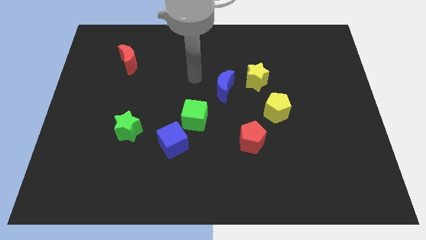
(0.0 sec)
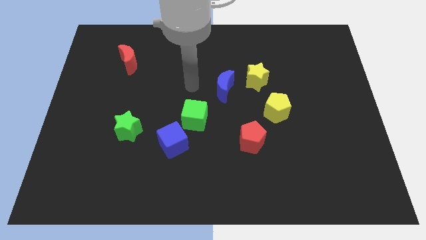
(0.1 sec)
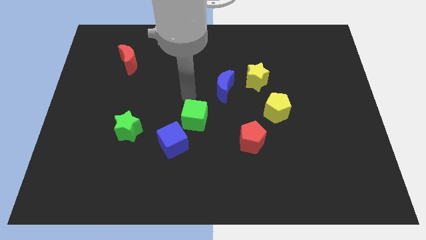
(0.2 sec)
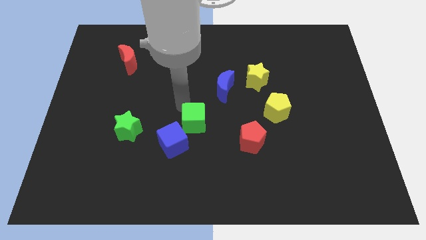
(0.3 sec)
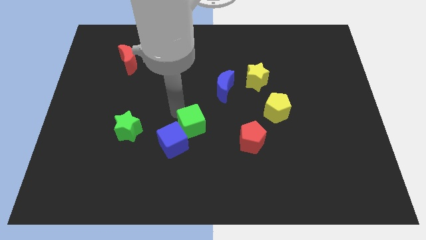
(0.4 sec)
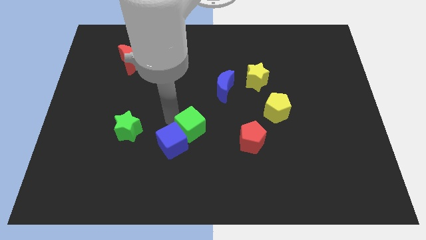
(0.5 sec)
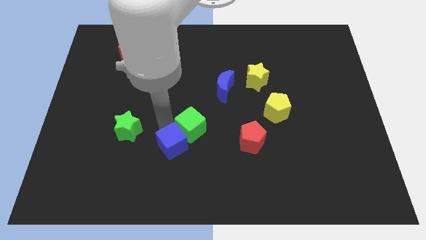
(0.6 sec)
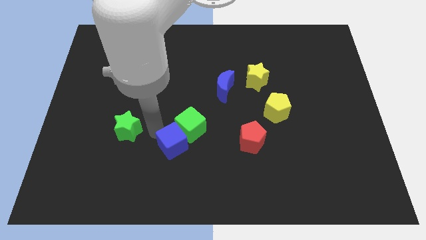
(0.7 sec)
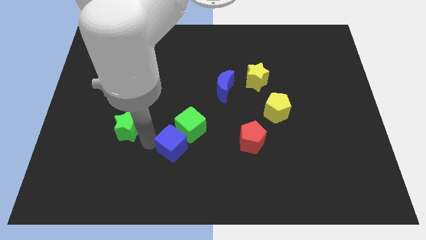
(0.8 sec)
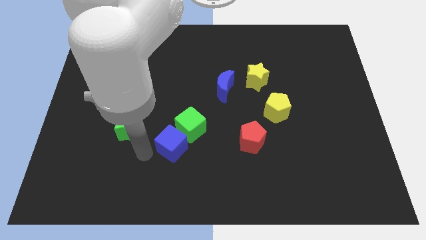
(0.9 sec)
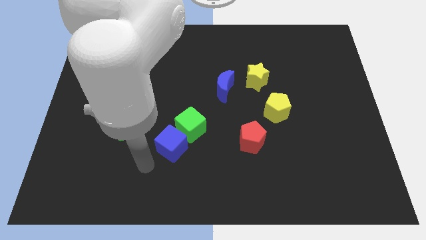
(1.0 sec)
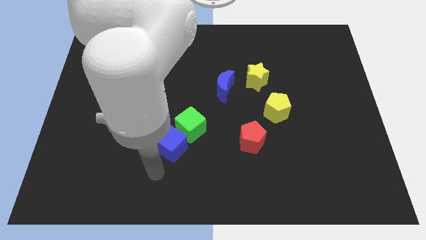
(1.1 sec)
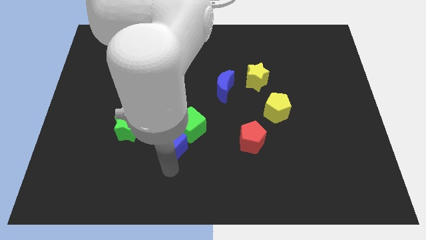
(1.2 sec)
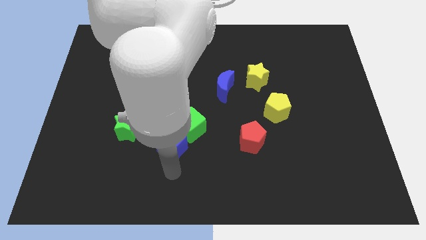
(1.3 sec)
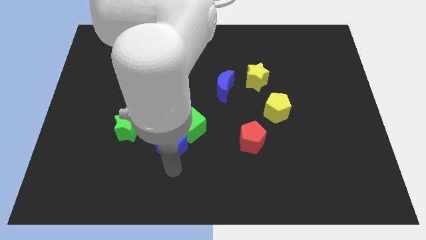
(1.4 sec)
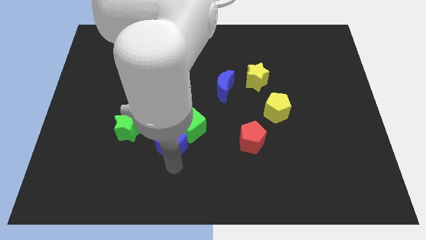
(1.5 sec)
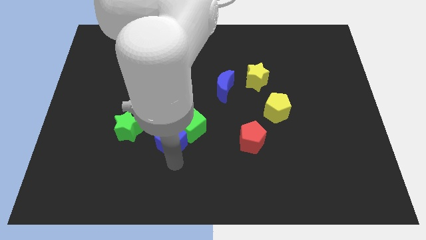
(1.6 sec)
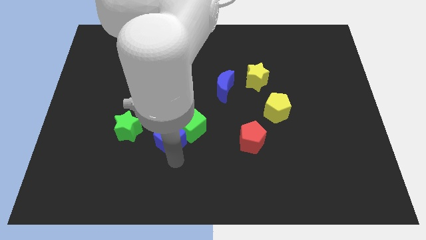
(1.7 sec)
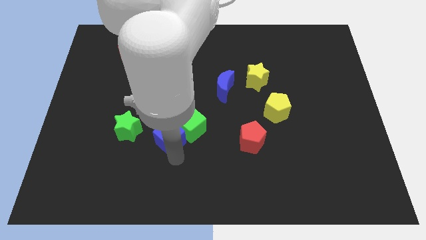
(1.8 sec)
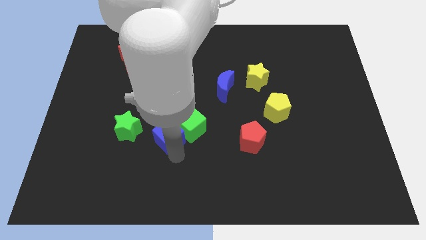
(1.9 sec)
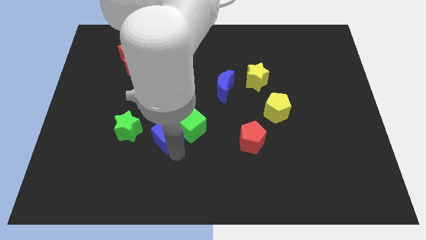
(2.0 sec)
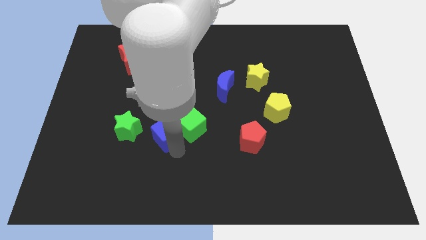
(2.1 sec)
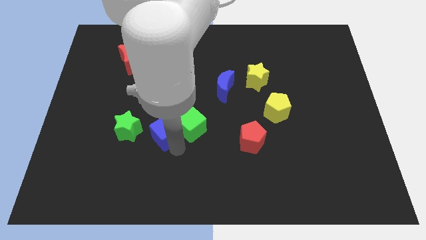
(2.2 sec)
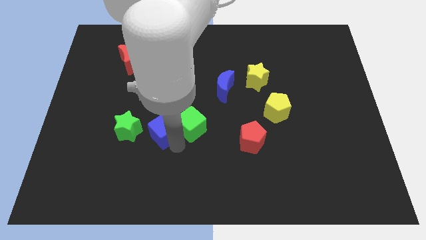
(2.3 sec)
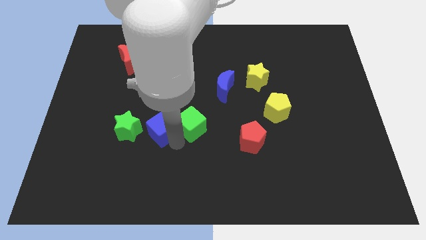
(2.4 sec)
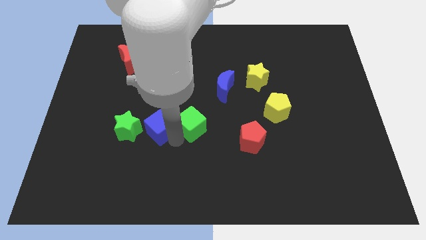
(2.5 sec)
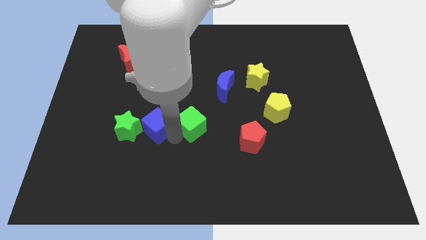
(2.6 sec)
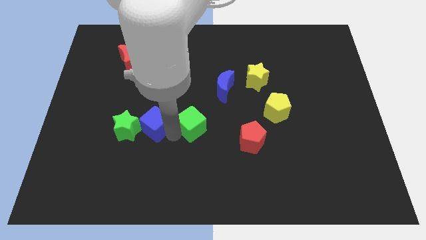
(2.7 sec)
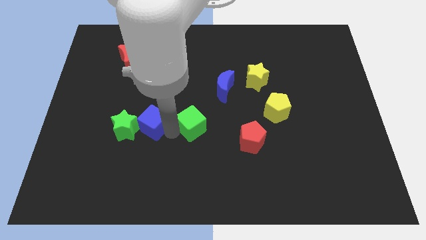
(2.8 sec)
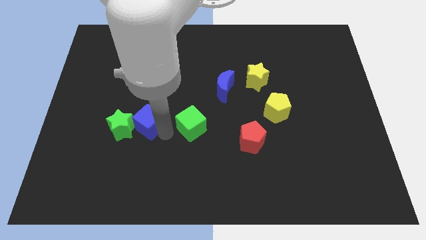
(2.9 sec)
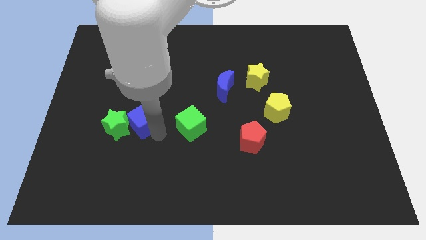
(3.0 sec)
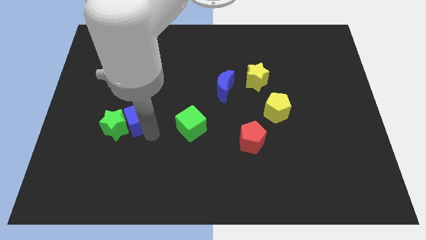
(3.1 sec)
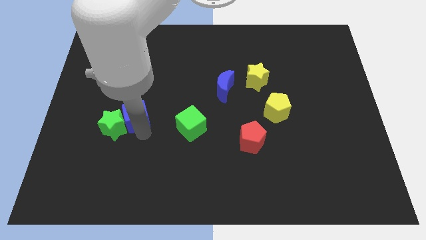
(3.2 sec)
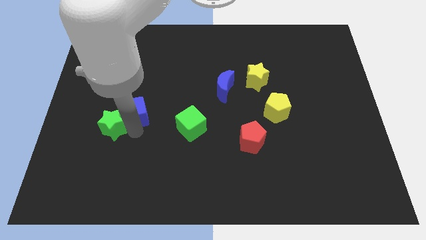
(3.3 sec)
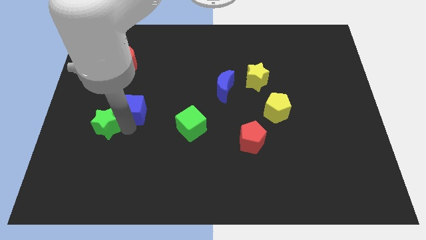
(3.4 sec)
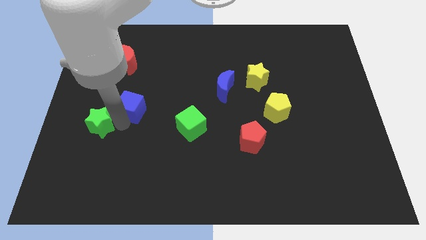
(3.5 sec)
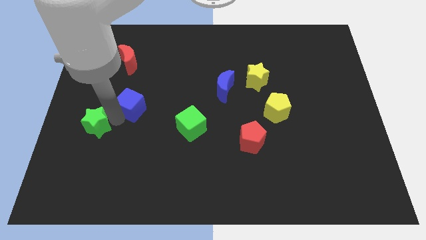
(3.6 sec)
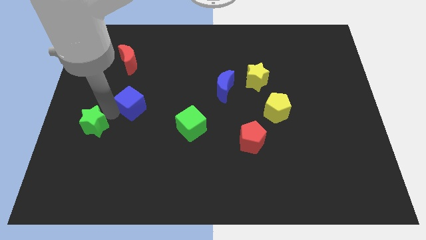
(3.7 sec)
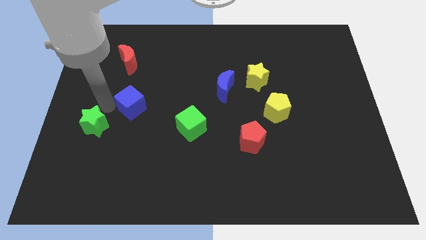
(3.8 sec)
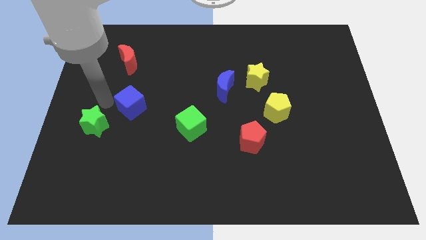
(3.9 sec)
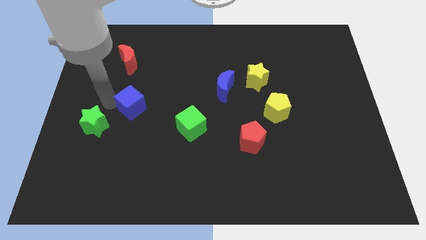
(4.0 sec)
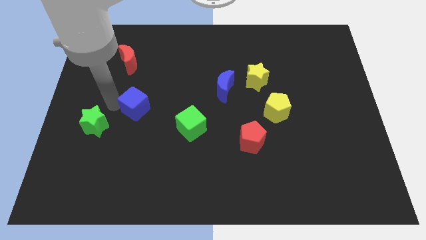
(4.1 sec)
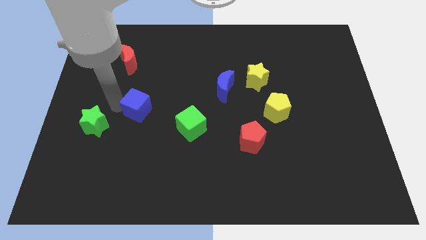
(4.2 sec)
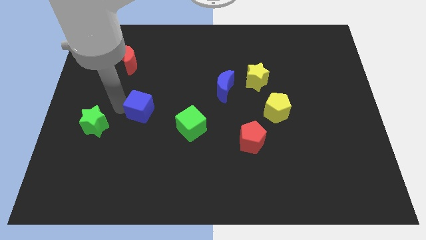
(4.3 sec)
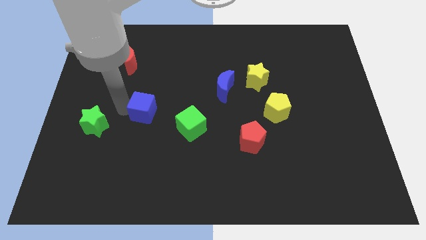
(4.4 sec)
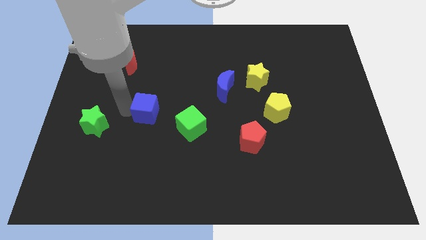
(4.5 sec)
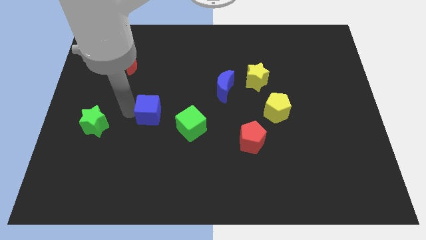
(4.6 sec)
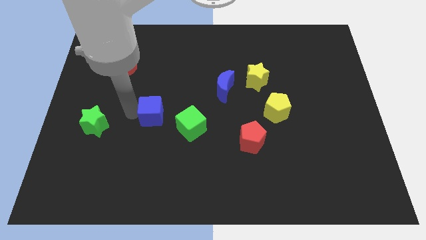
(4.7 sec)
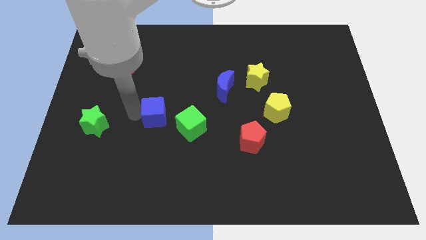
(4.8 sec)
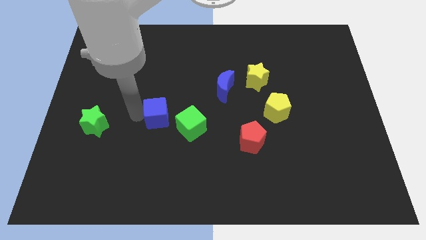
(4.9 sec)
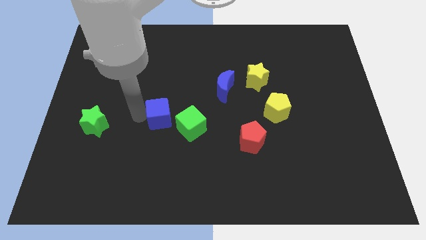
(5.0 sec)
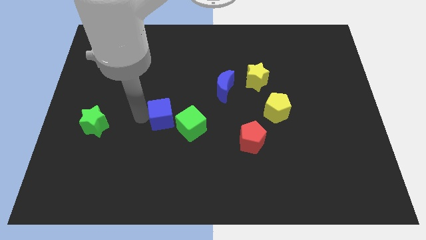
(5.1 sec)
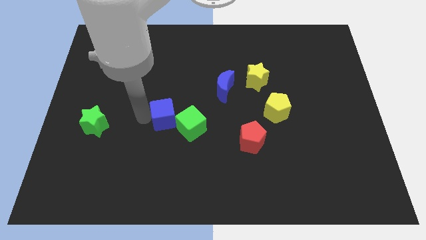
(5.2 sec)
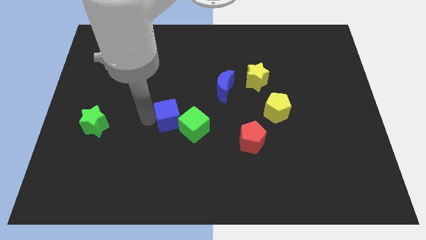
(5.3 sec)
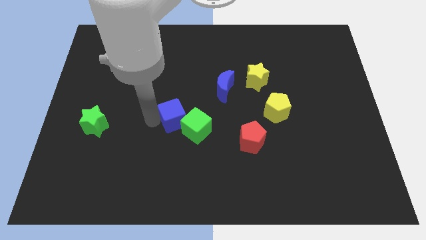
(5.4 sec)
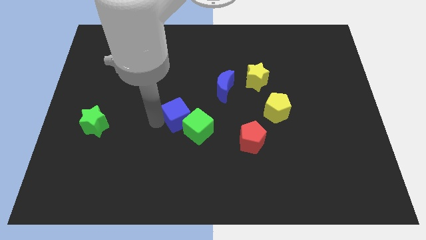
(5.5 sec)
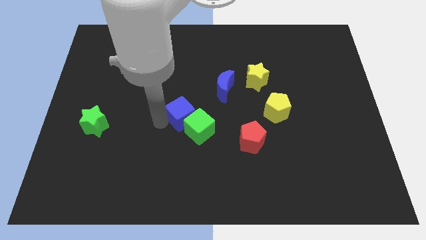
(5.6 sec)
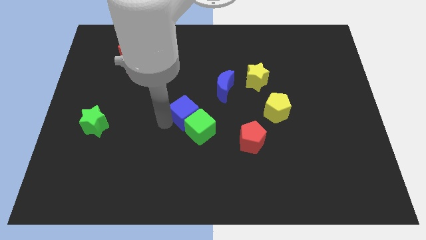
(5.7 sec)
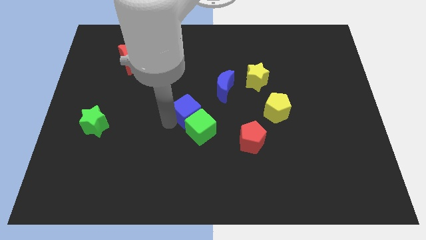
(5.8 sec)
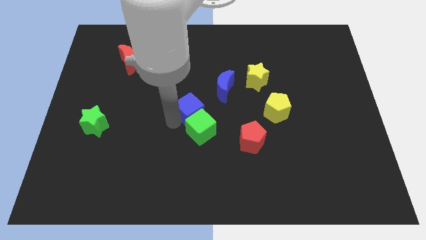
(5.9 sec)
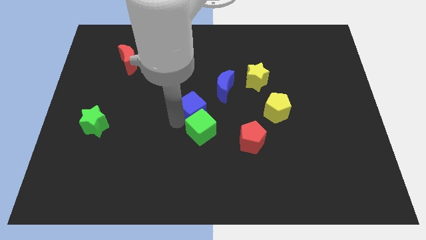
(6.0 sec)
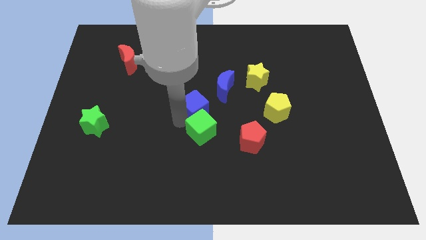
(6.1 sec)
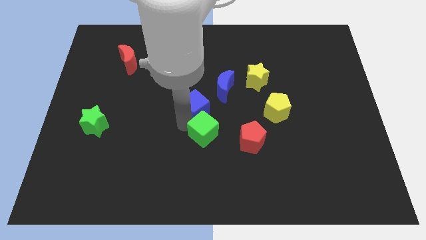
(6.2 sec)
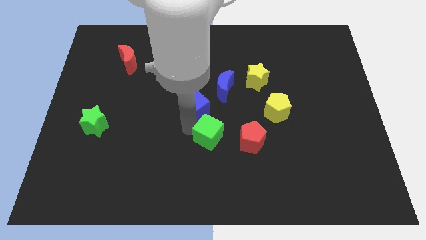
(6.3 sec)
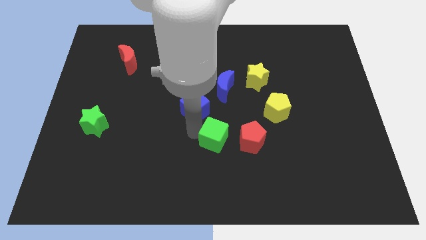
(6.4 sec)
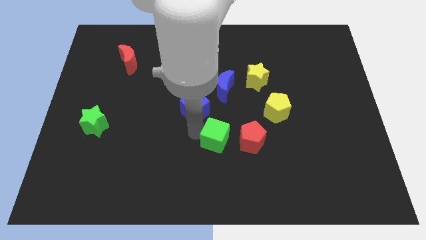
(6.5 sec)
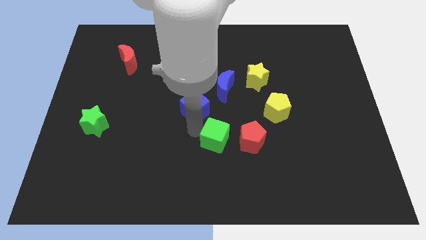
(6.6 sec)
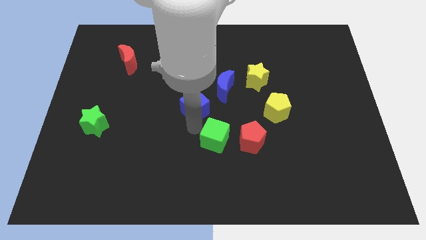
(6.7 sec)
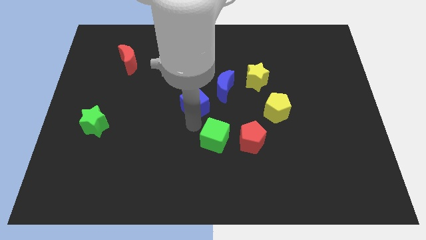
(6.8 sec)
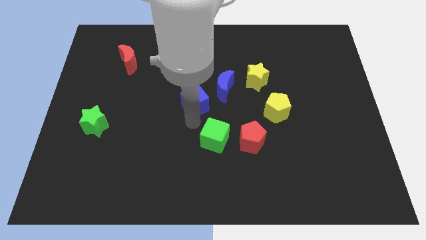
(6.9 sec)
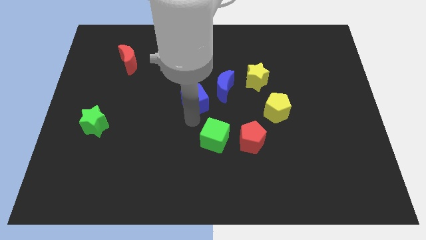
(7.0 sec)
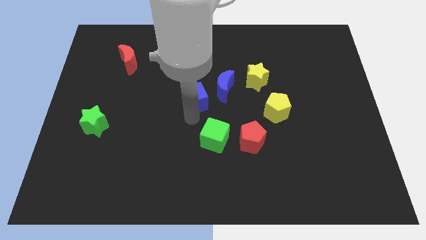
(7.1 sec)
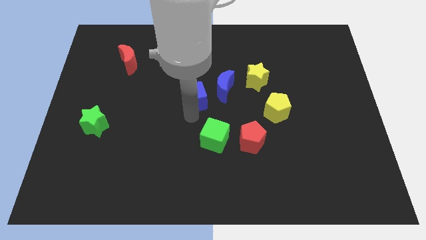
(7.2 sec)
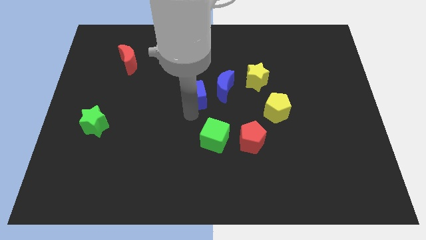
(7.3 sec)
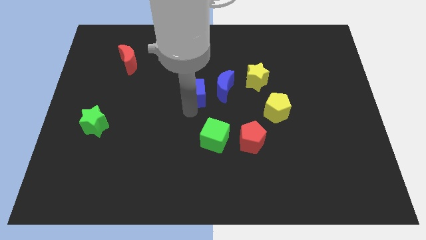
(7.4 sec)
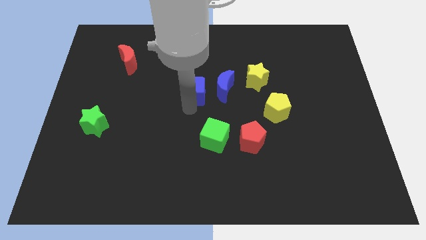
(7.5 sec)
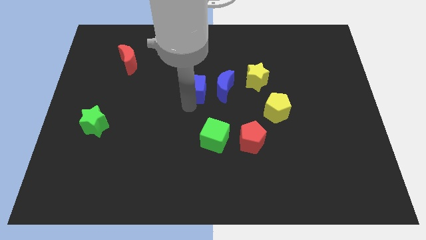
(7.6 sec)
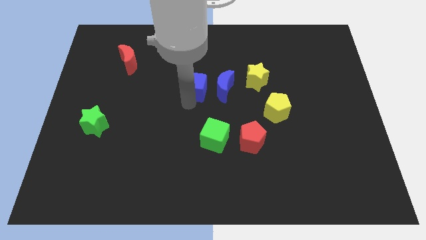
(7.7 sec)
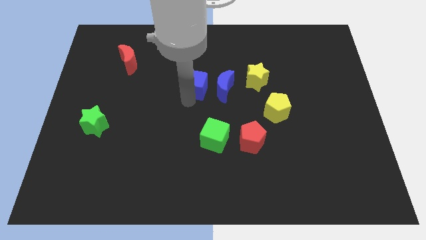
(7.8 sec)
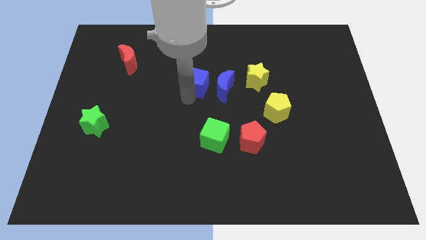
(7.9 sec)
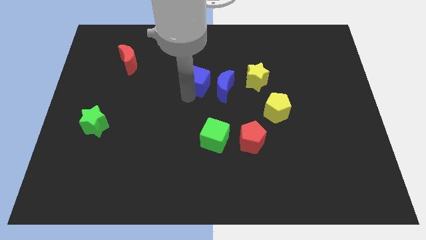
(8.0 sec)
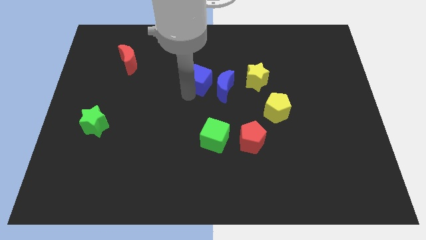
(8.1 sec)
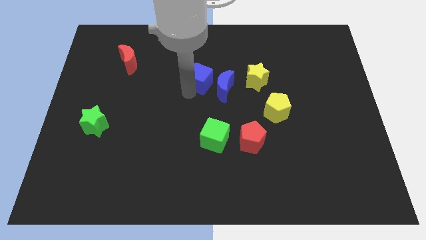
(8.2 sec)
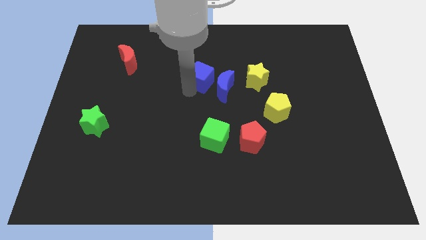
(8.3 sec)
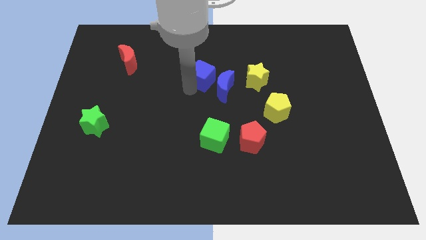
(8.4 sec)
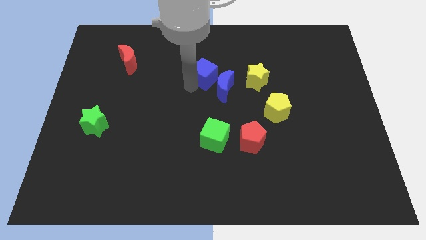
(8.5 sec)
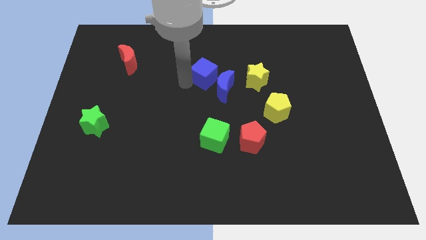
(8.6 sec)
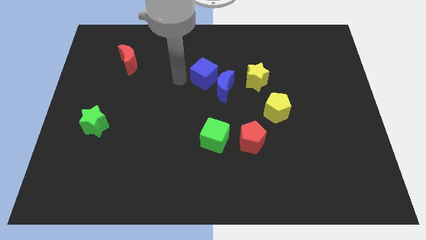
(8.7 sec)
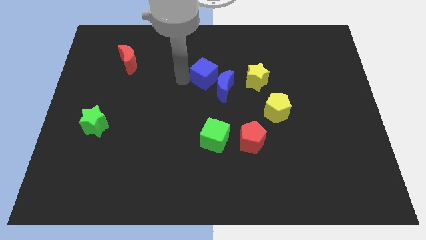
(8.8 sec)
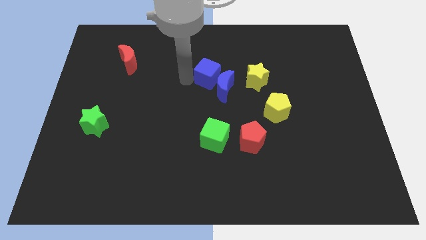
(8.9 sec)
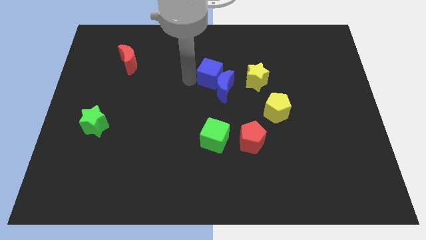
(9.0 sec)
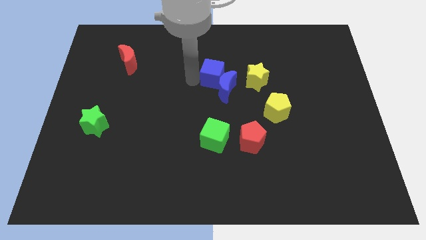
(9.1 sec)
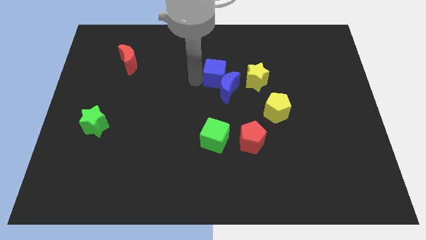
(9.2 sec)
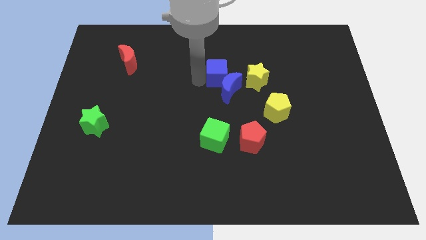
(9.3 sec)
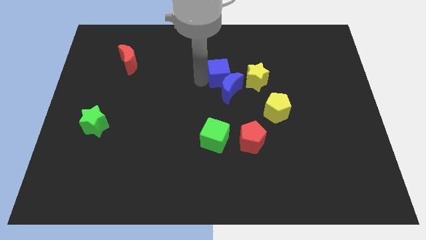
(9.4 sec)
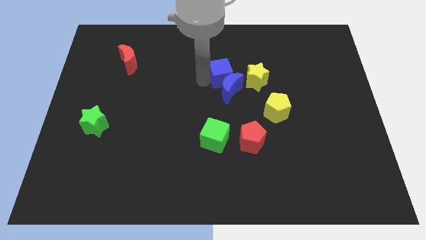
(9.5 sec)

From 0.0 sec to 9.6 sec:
move the blue cube up and then right
